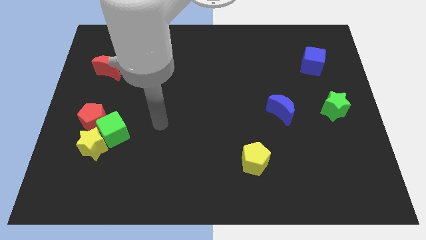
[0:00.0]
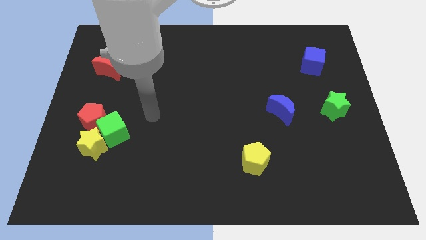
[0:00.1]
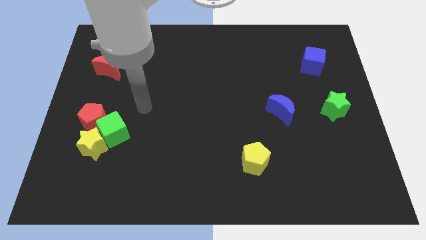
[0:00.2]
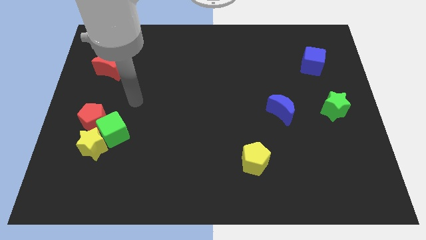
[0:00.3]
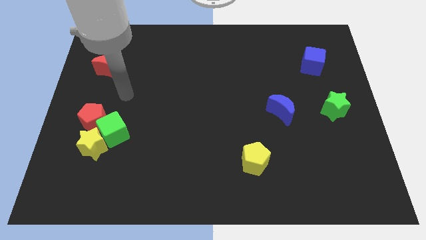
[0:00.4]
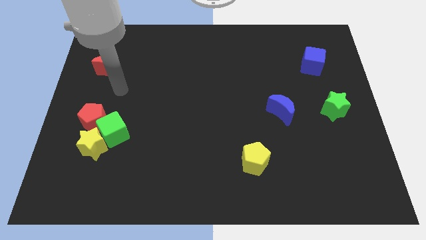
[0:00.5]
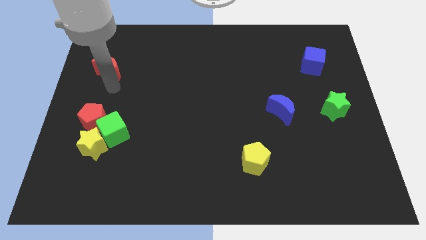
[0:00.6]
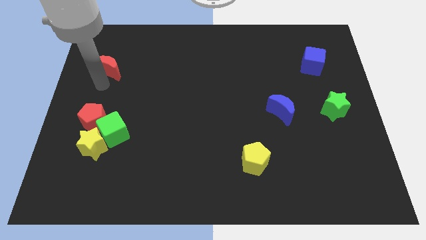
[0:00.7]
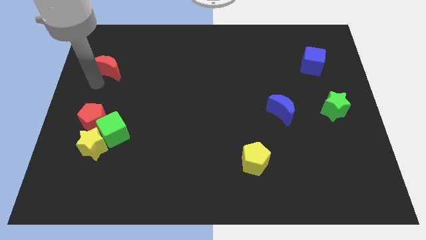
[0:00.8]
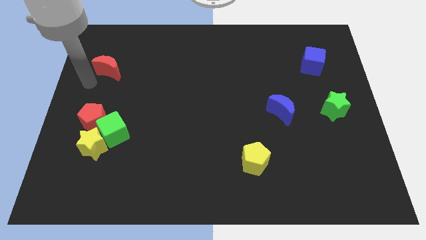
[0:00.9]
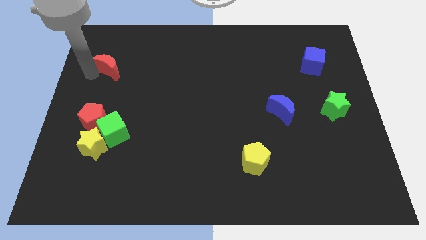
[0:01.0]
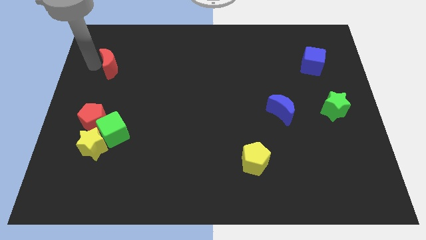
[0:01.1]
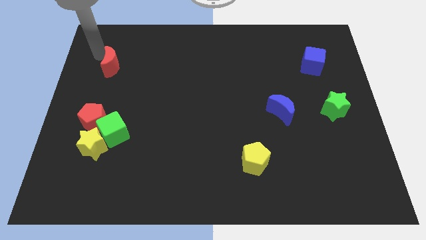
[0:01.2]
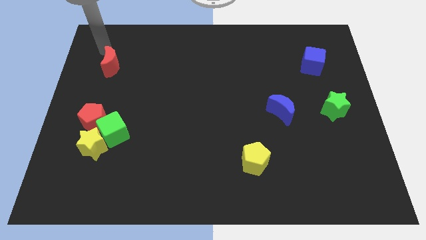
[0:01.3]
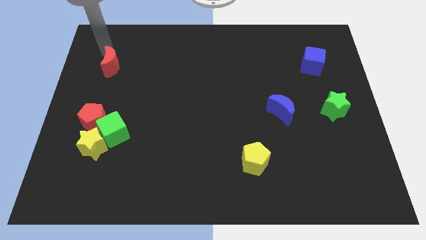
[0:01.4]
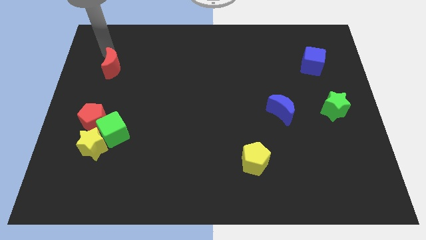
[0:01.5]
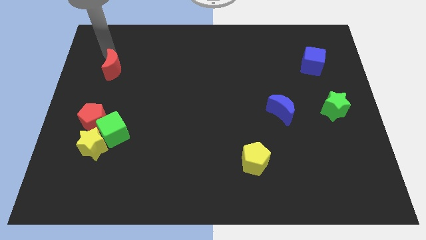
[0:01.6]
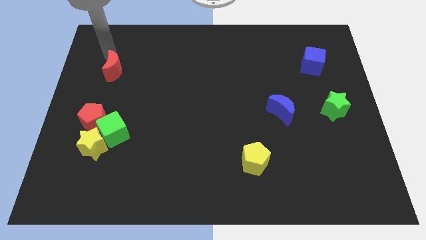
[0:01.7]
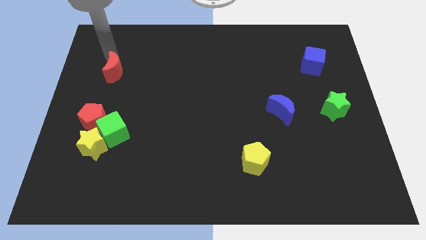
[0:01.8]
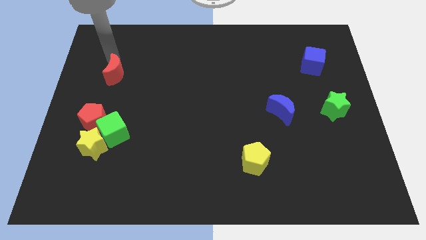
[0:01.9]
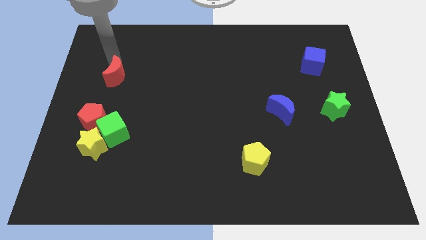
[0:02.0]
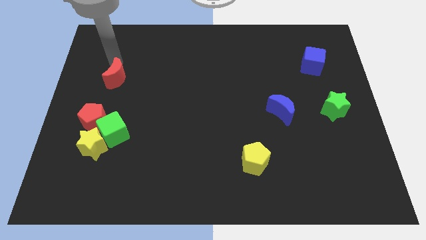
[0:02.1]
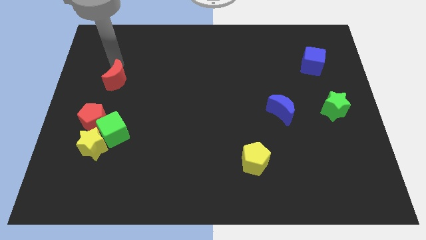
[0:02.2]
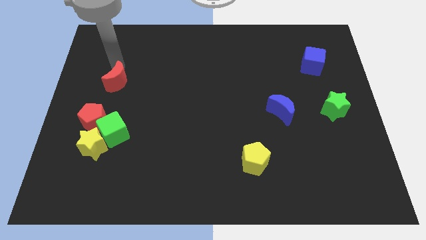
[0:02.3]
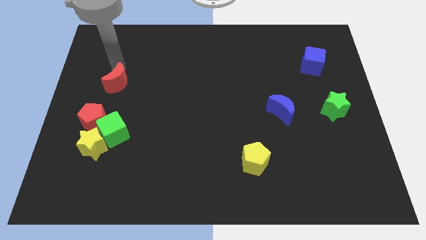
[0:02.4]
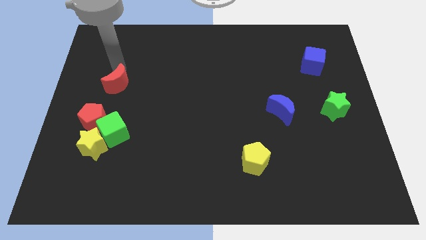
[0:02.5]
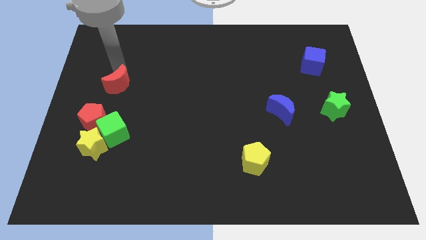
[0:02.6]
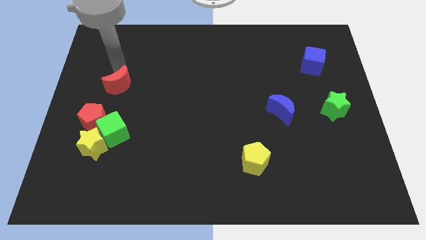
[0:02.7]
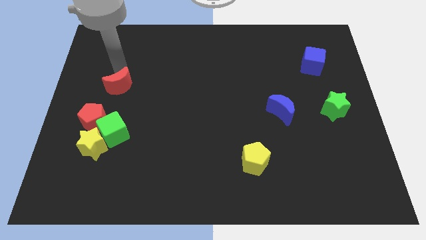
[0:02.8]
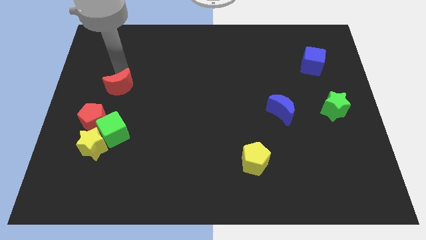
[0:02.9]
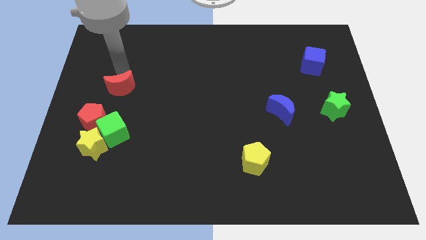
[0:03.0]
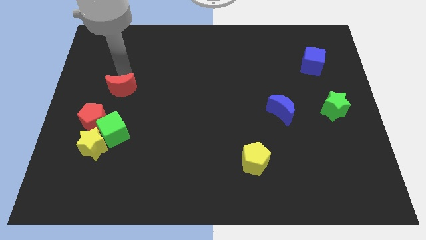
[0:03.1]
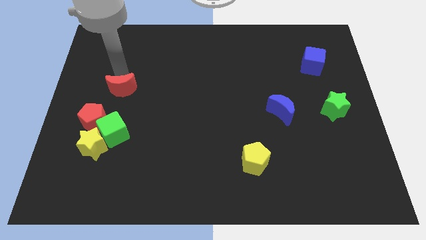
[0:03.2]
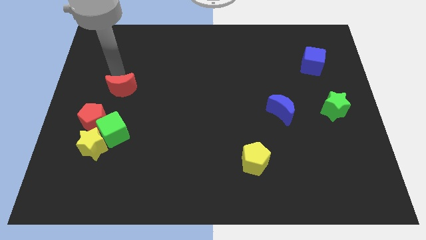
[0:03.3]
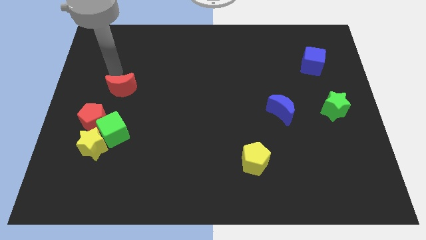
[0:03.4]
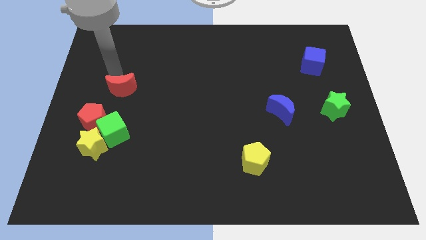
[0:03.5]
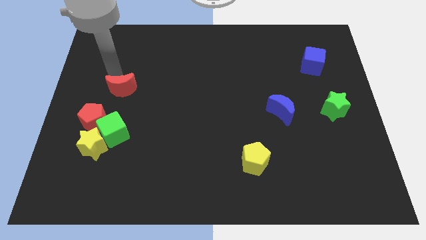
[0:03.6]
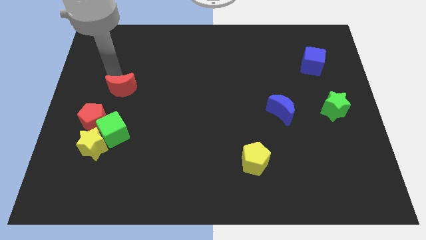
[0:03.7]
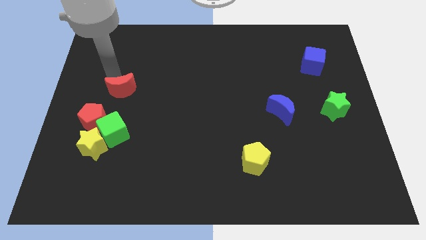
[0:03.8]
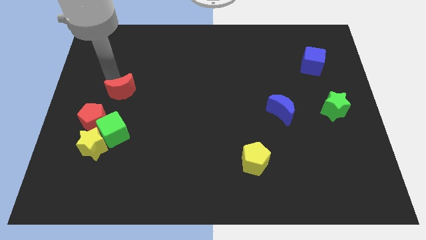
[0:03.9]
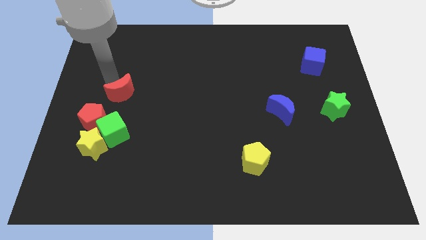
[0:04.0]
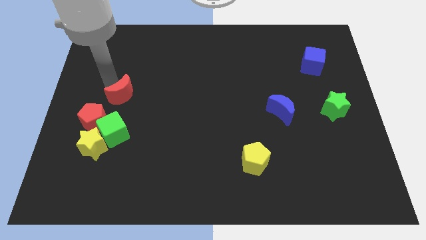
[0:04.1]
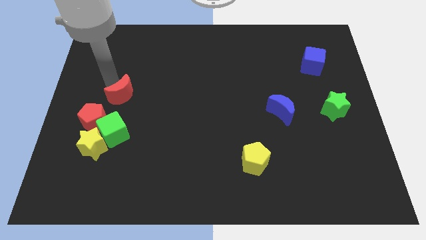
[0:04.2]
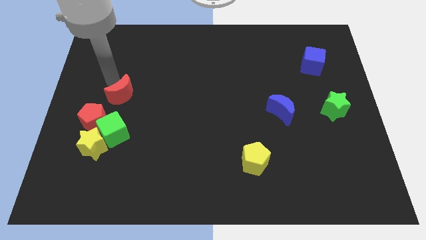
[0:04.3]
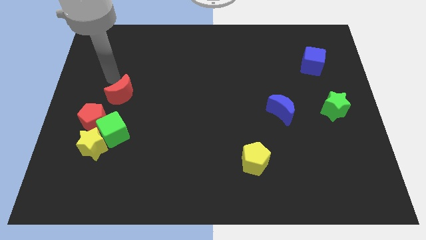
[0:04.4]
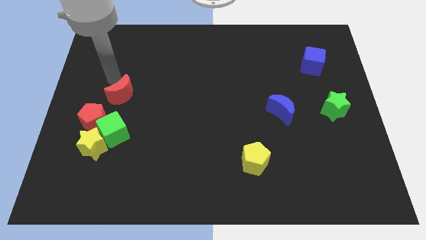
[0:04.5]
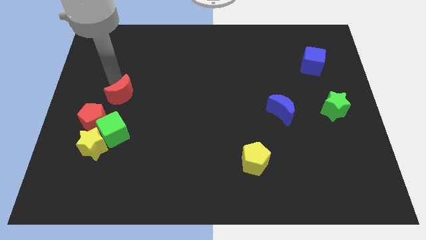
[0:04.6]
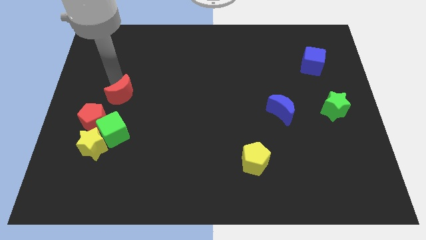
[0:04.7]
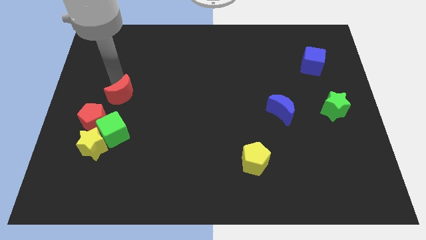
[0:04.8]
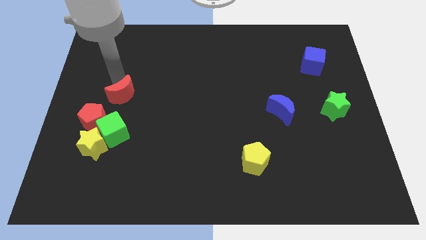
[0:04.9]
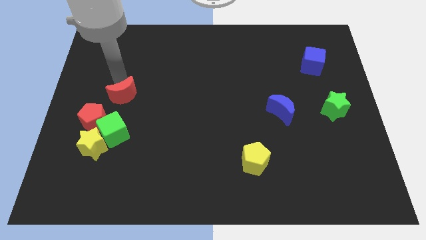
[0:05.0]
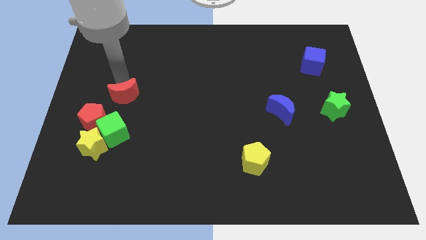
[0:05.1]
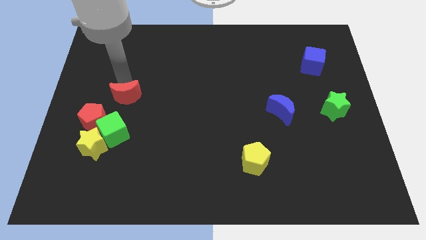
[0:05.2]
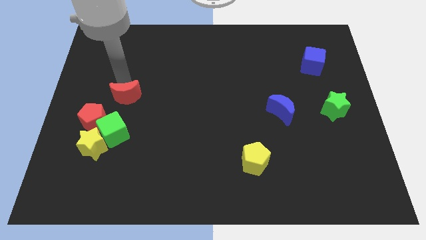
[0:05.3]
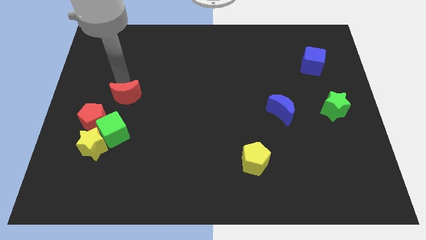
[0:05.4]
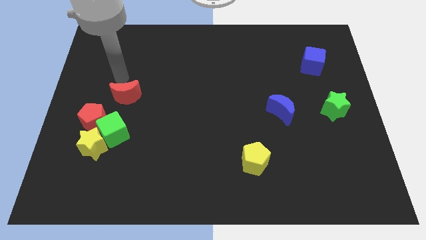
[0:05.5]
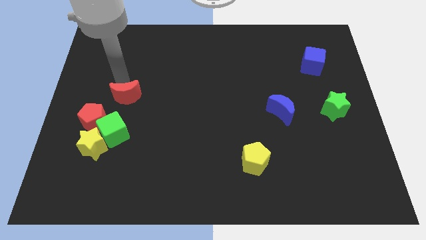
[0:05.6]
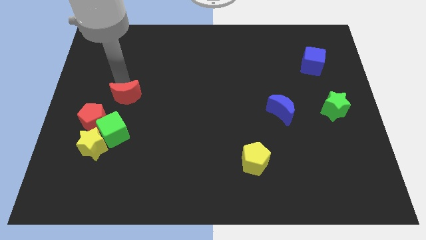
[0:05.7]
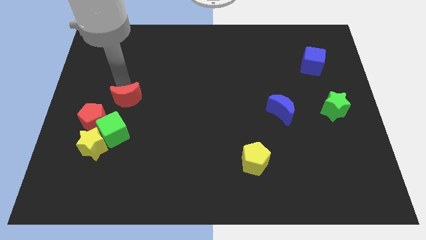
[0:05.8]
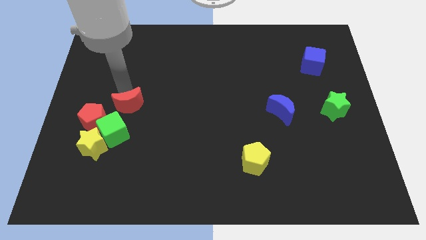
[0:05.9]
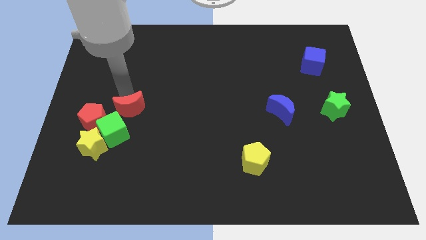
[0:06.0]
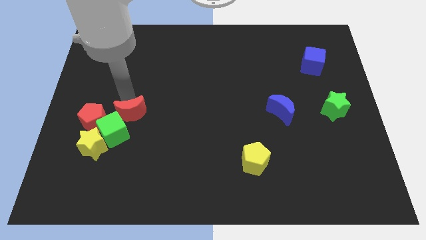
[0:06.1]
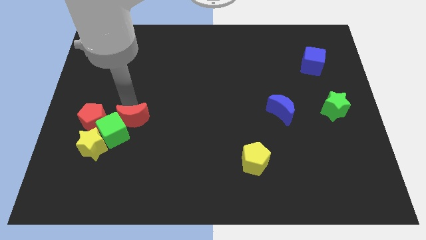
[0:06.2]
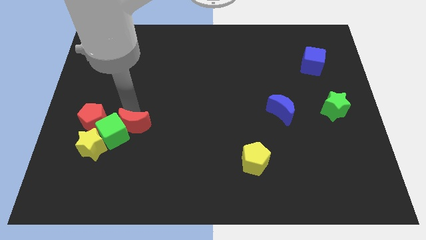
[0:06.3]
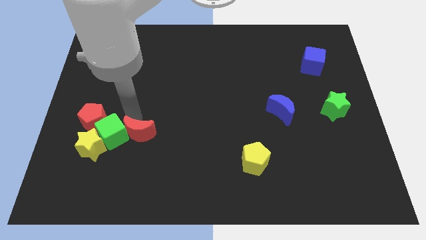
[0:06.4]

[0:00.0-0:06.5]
slide the red moon diagonally down and to the right of the green cube
